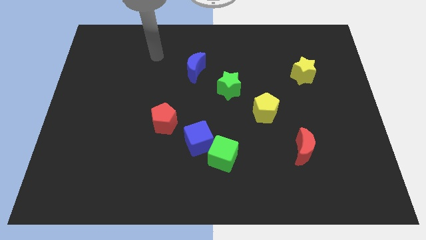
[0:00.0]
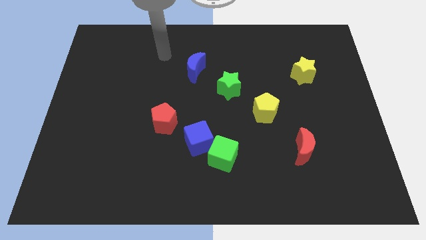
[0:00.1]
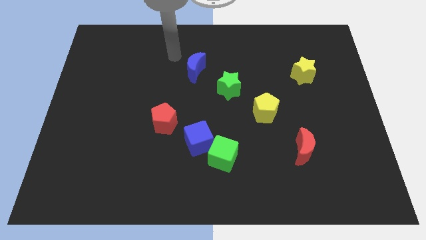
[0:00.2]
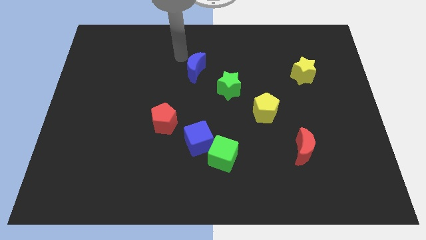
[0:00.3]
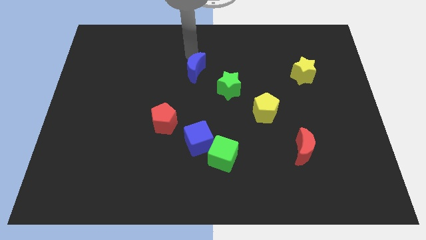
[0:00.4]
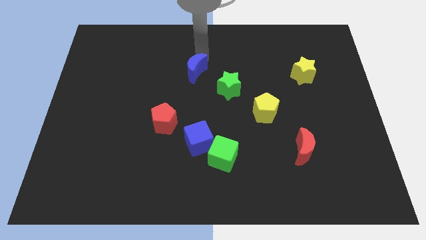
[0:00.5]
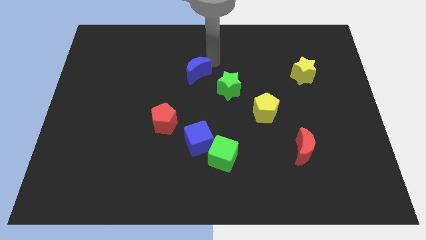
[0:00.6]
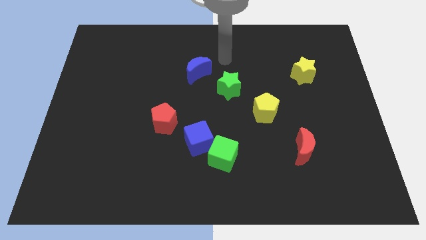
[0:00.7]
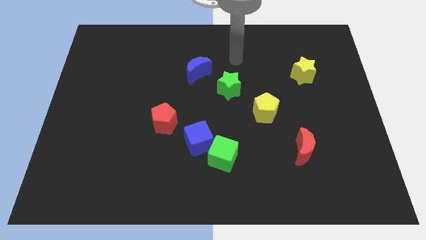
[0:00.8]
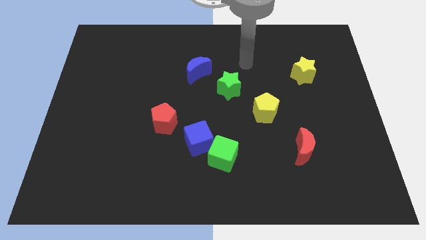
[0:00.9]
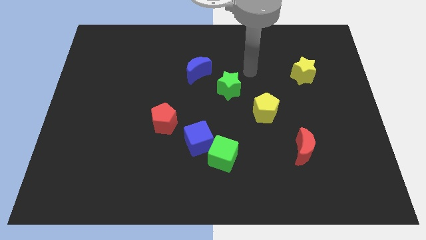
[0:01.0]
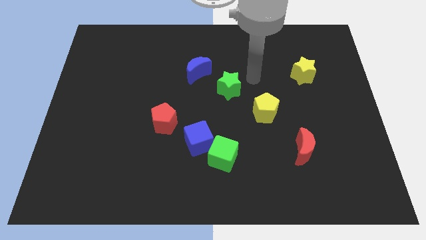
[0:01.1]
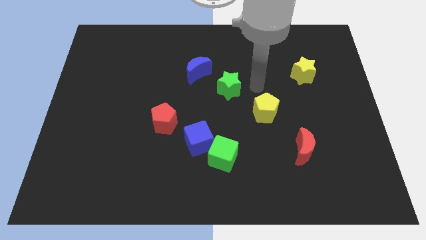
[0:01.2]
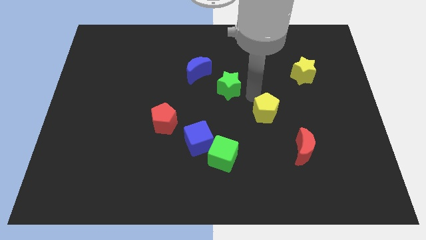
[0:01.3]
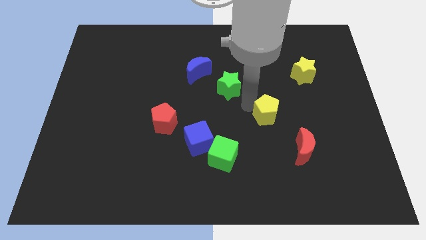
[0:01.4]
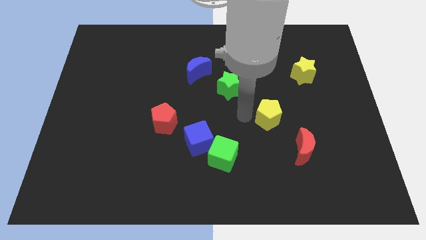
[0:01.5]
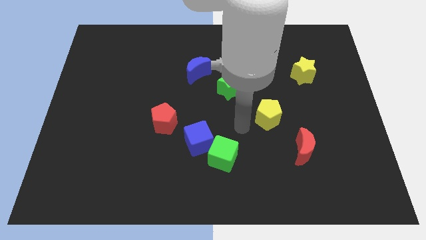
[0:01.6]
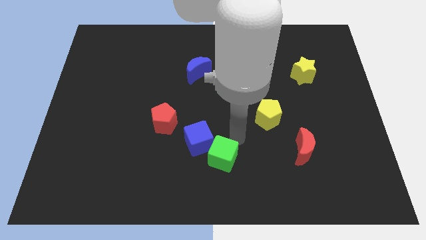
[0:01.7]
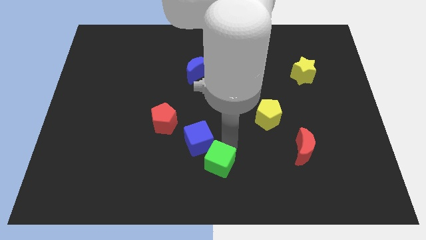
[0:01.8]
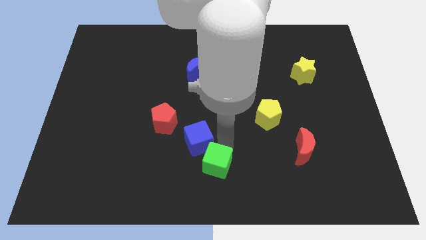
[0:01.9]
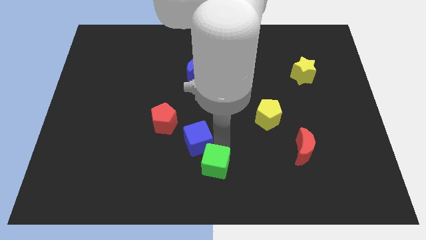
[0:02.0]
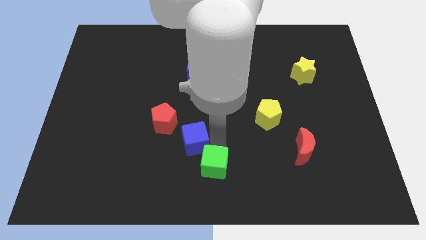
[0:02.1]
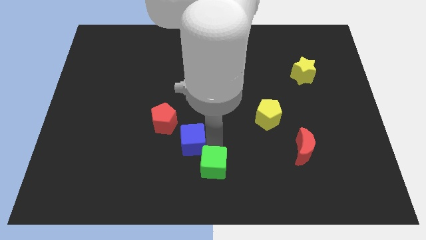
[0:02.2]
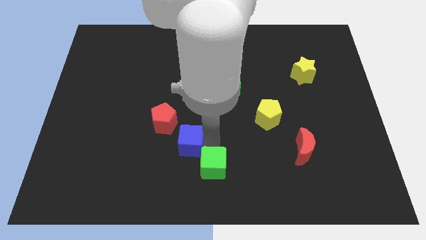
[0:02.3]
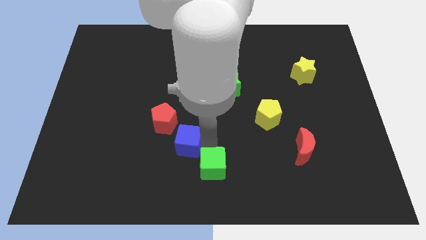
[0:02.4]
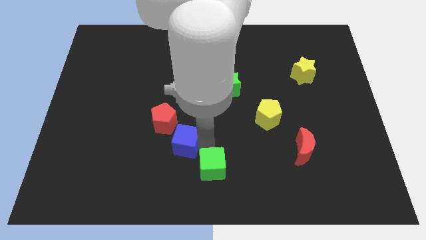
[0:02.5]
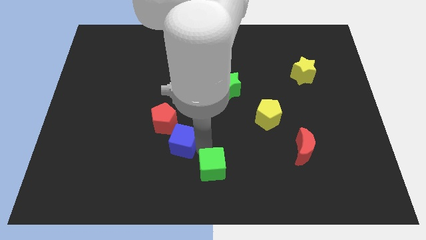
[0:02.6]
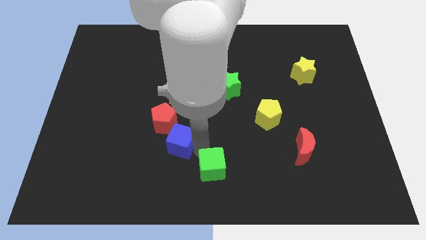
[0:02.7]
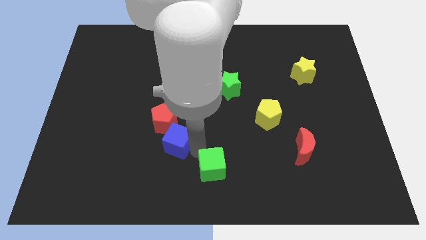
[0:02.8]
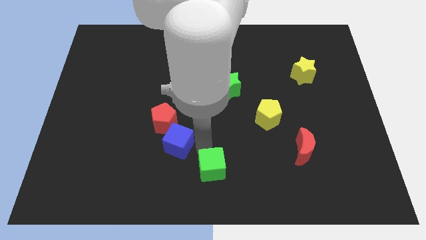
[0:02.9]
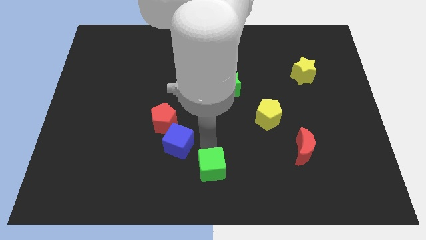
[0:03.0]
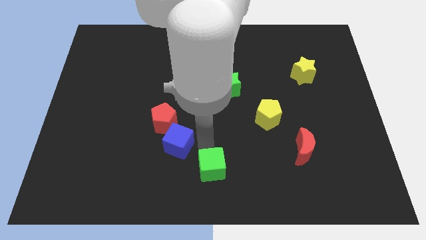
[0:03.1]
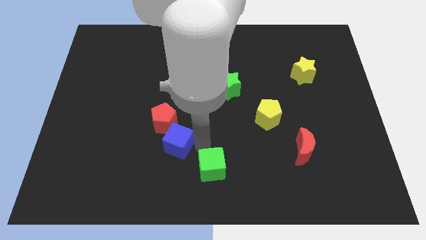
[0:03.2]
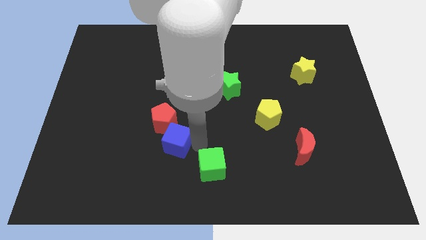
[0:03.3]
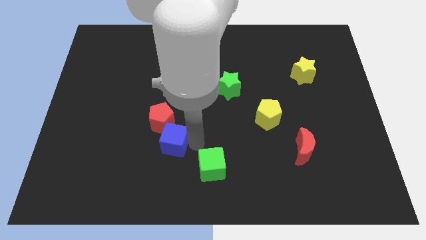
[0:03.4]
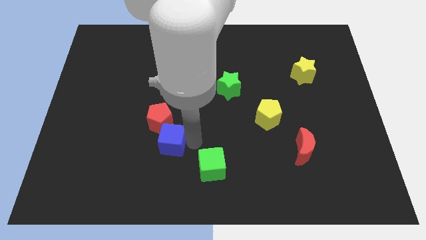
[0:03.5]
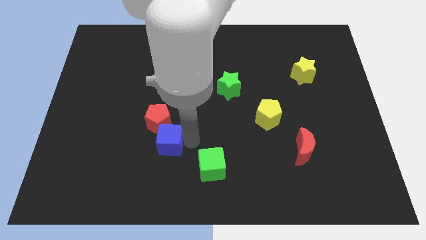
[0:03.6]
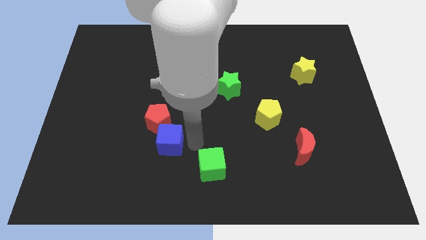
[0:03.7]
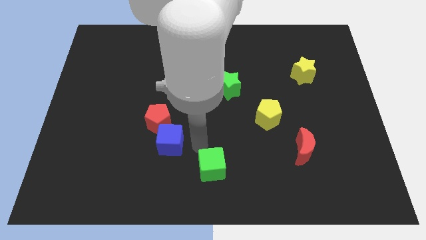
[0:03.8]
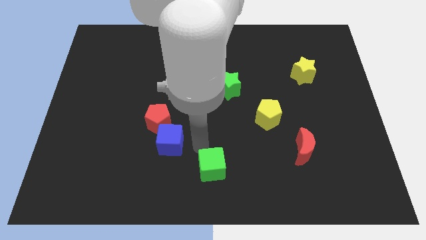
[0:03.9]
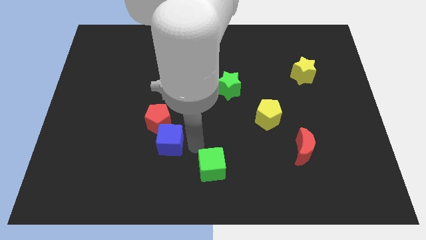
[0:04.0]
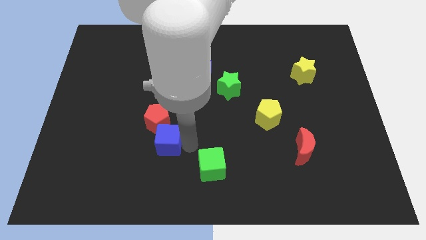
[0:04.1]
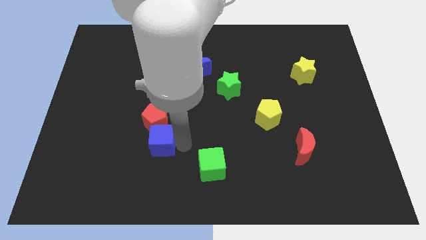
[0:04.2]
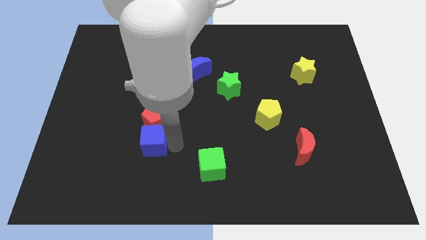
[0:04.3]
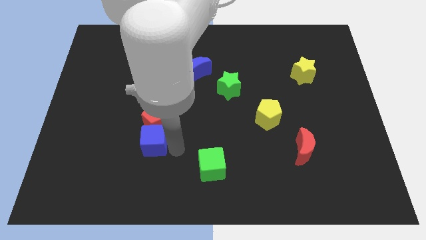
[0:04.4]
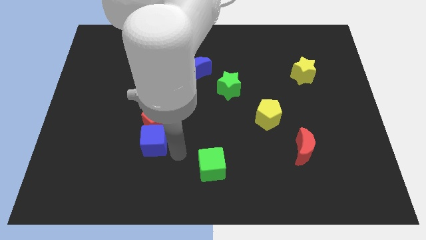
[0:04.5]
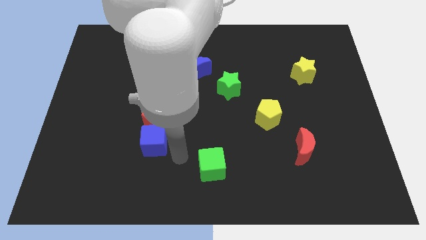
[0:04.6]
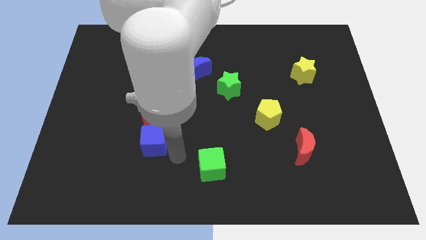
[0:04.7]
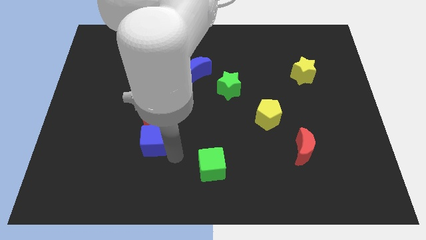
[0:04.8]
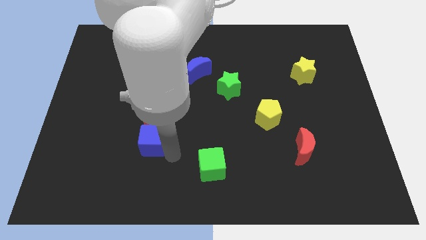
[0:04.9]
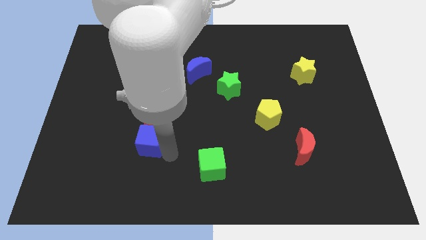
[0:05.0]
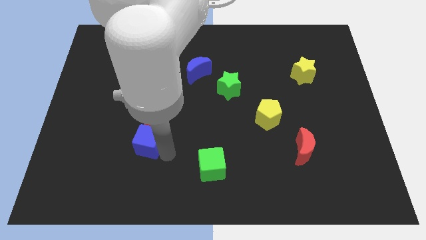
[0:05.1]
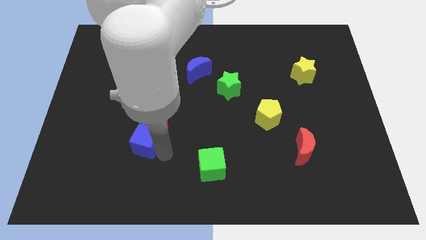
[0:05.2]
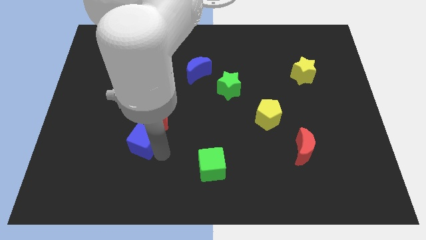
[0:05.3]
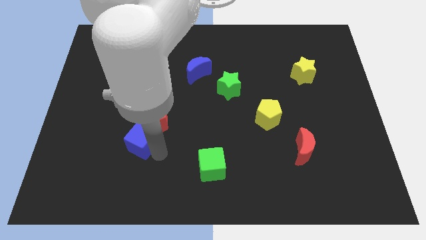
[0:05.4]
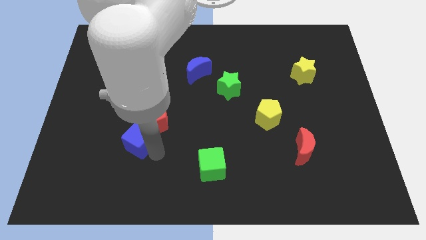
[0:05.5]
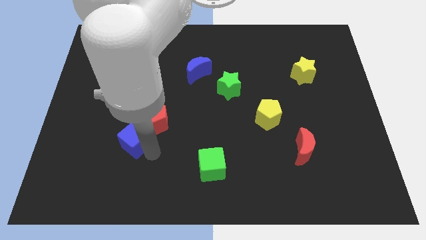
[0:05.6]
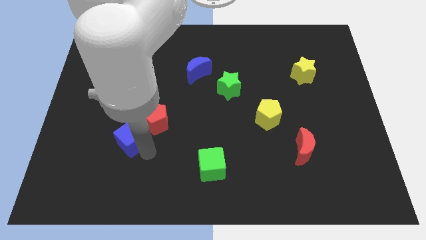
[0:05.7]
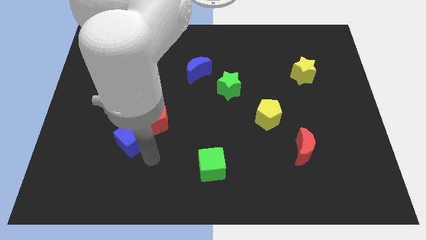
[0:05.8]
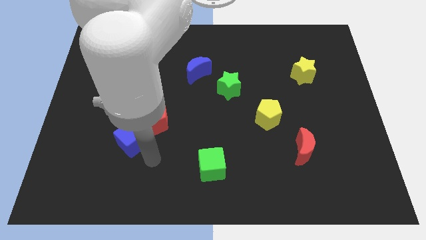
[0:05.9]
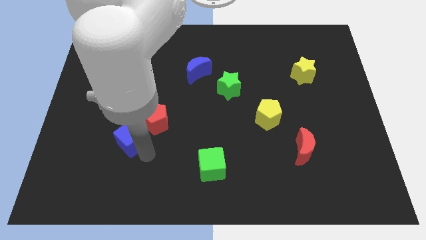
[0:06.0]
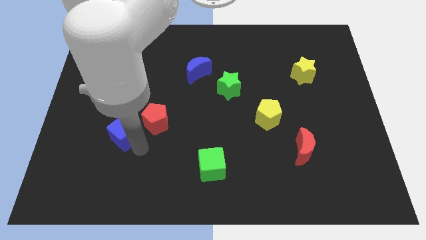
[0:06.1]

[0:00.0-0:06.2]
push the blue cube just left of the red pentagon
